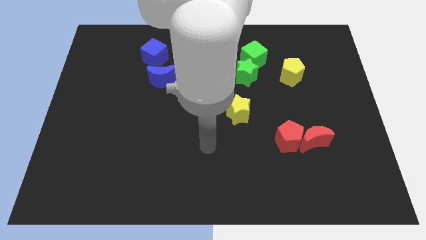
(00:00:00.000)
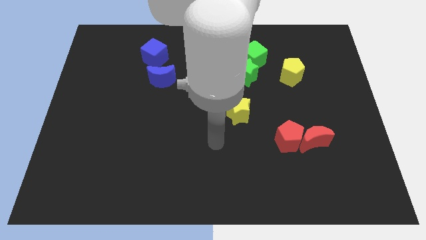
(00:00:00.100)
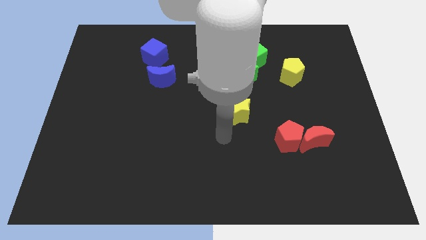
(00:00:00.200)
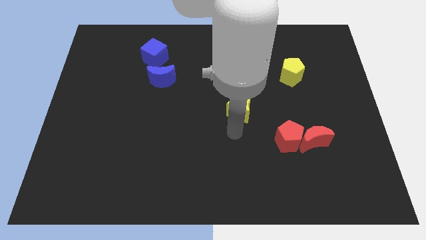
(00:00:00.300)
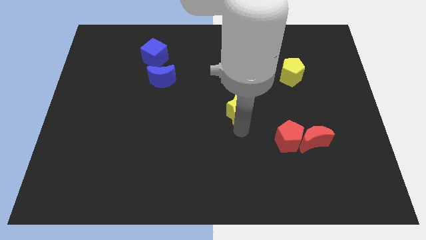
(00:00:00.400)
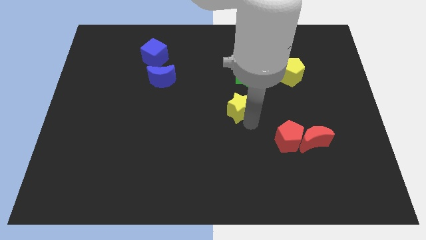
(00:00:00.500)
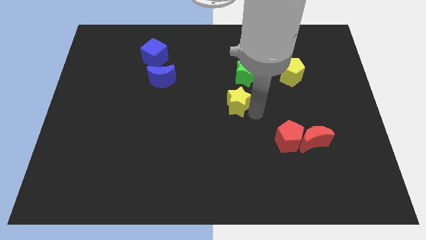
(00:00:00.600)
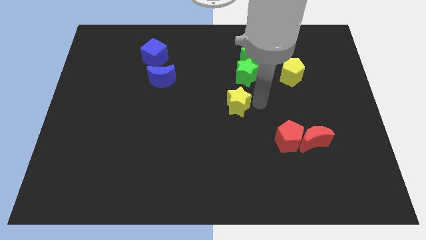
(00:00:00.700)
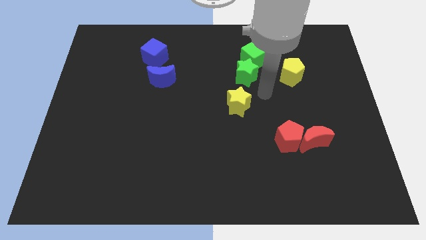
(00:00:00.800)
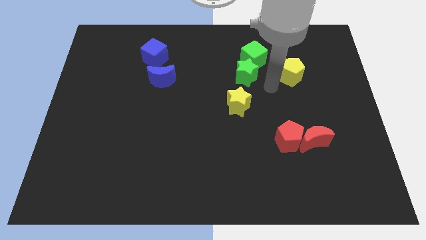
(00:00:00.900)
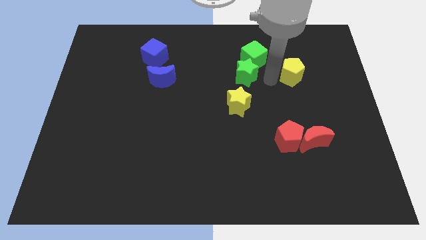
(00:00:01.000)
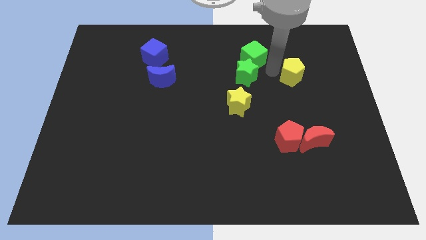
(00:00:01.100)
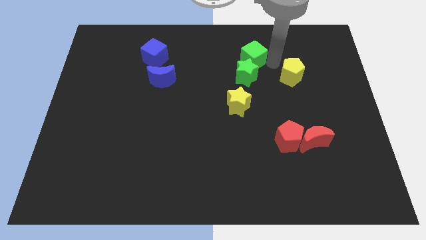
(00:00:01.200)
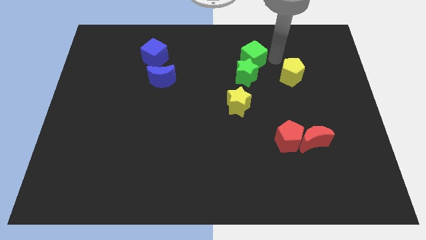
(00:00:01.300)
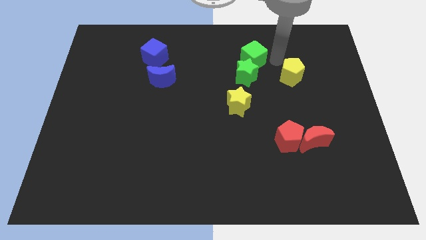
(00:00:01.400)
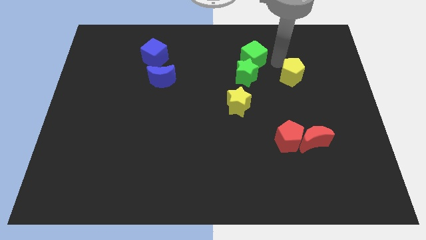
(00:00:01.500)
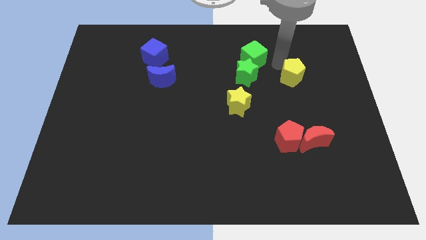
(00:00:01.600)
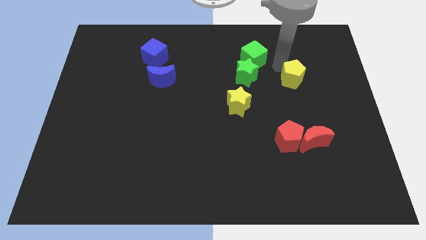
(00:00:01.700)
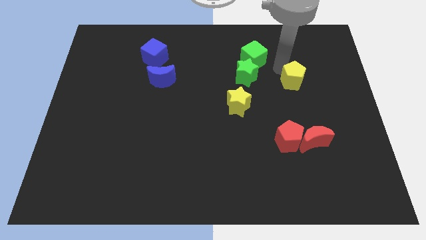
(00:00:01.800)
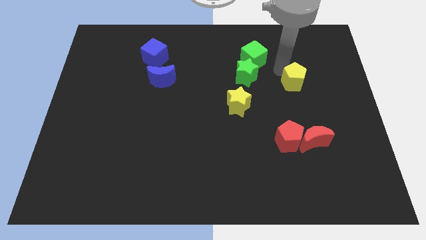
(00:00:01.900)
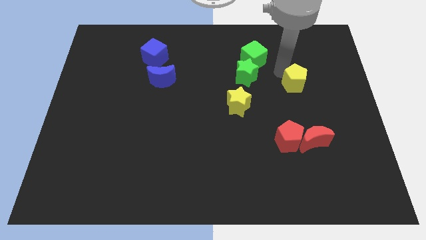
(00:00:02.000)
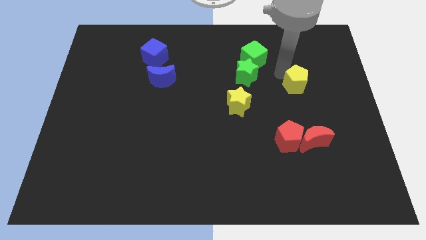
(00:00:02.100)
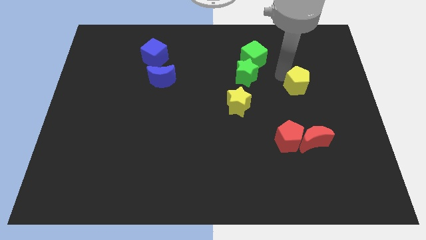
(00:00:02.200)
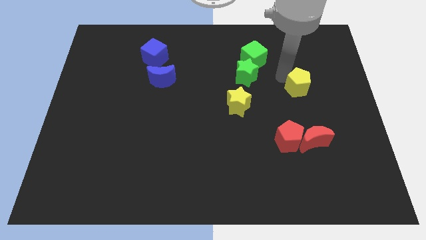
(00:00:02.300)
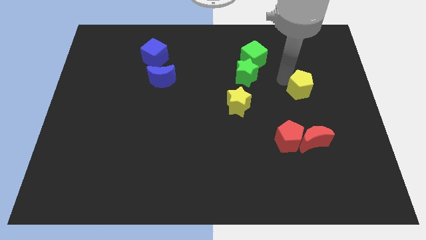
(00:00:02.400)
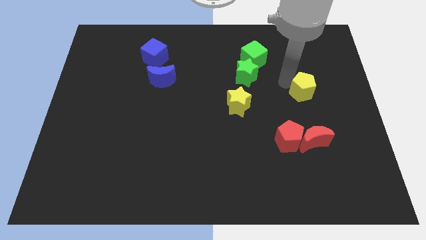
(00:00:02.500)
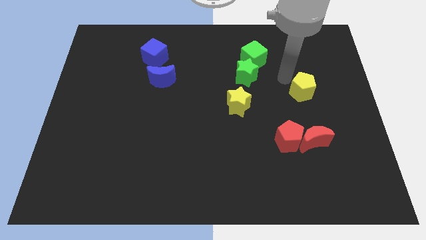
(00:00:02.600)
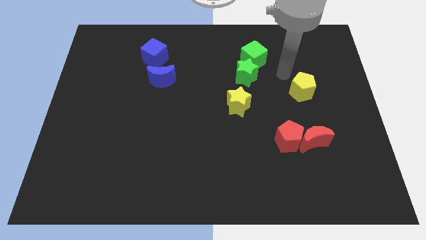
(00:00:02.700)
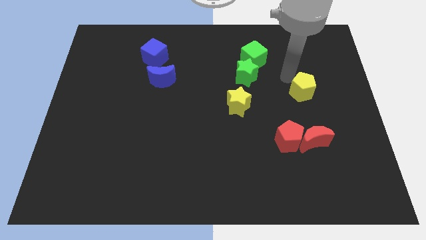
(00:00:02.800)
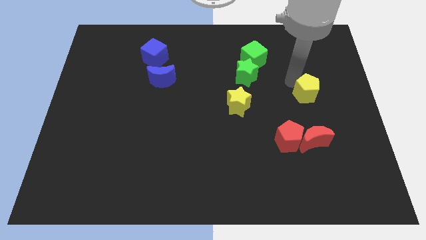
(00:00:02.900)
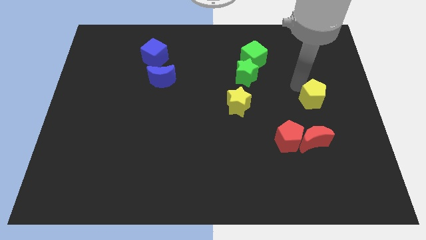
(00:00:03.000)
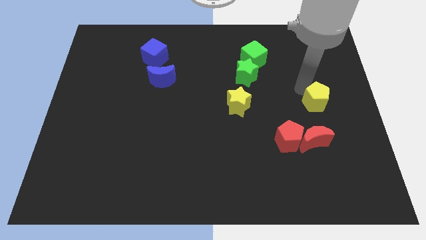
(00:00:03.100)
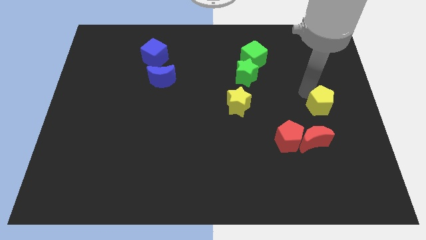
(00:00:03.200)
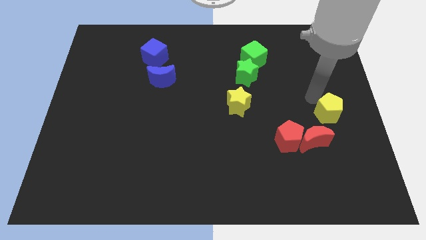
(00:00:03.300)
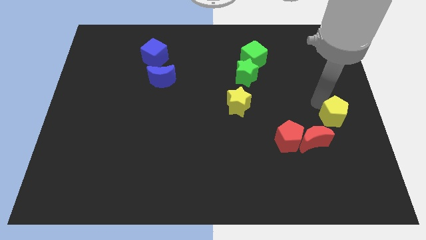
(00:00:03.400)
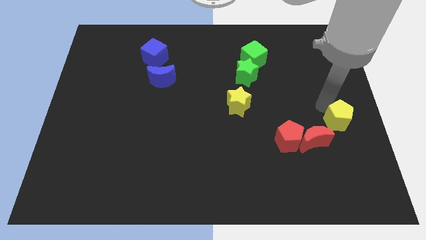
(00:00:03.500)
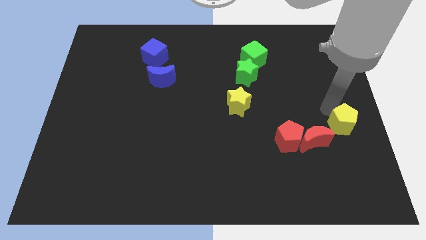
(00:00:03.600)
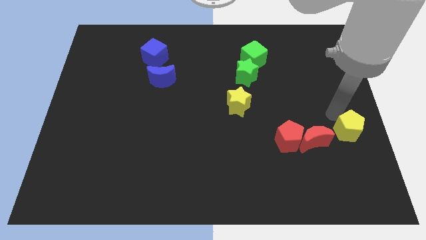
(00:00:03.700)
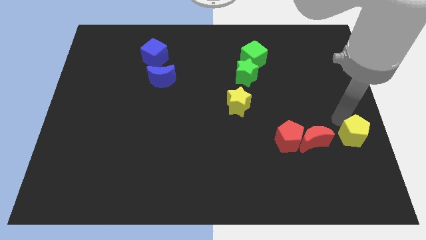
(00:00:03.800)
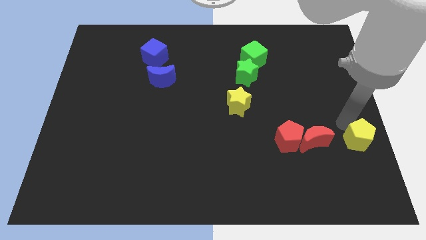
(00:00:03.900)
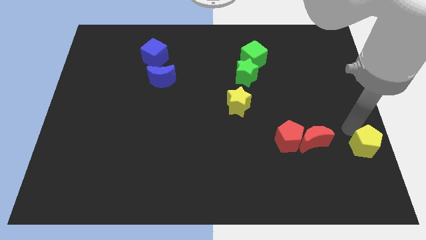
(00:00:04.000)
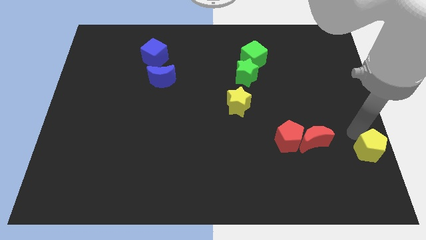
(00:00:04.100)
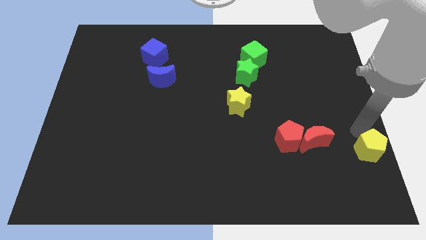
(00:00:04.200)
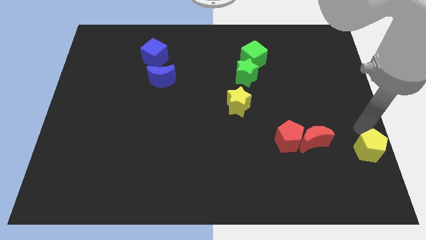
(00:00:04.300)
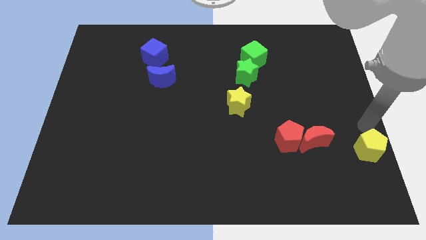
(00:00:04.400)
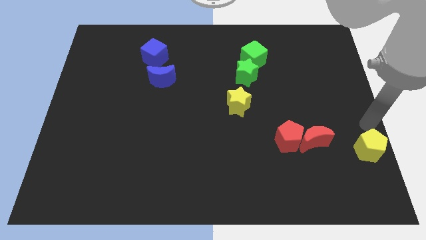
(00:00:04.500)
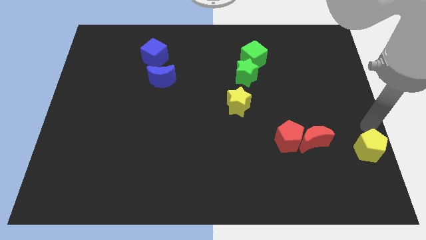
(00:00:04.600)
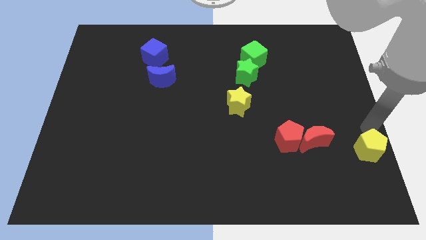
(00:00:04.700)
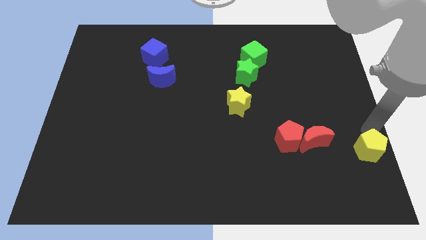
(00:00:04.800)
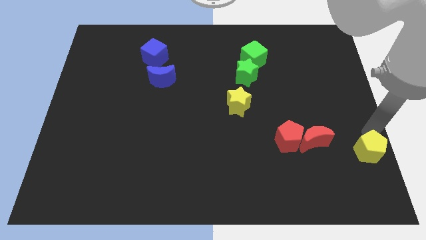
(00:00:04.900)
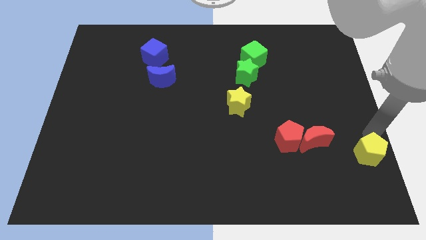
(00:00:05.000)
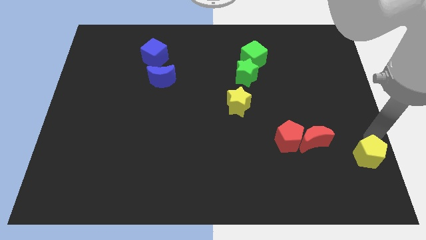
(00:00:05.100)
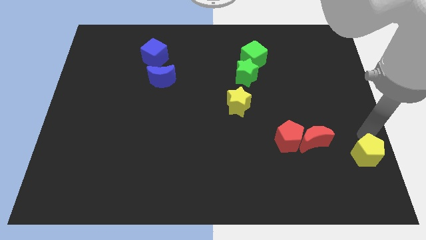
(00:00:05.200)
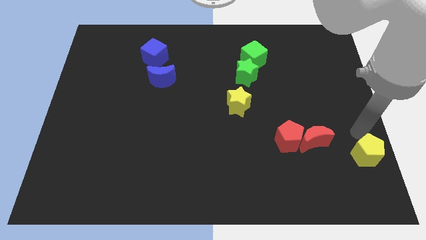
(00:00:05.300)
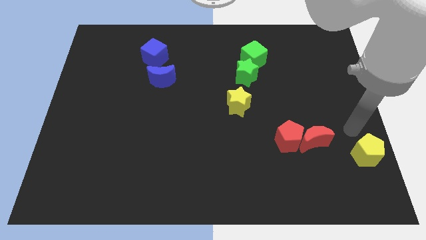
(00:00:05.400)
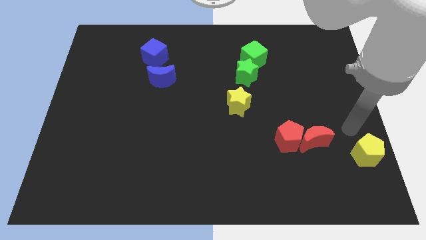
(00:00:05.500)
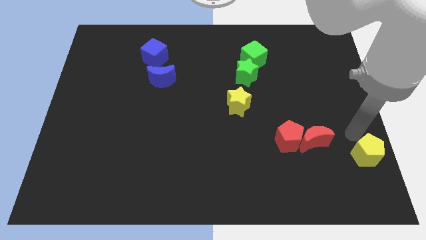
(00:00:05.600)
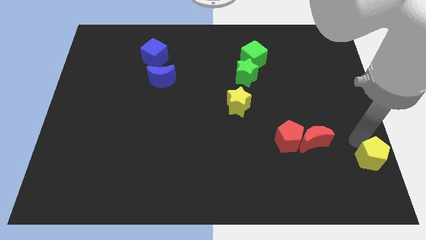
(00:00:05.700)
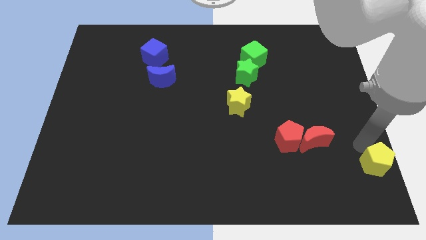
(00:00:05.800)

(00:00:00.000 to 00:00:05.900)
move the yellow pentagon to the bottom right
